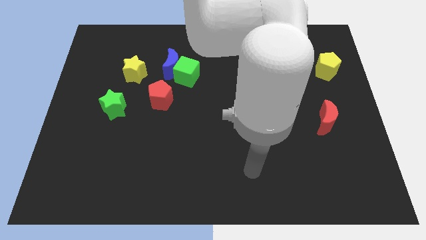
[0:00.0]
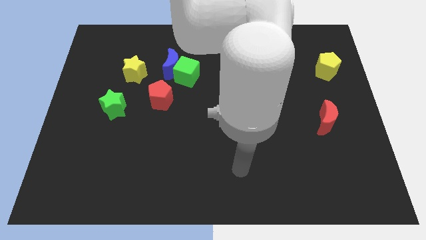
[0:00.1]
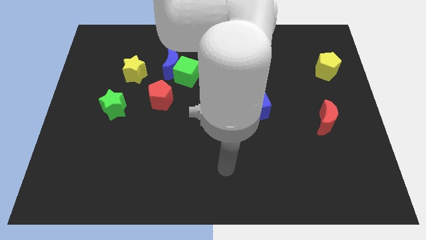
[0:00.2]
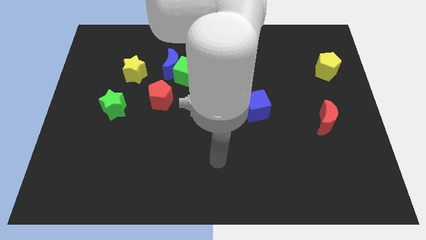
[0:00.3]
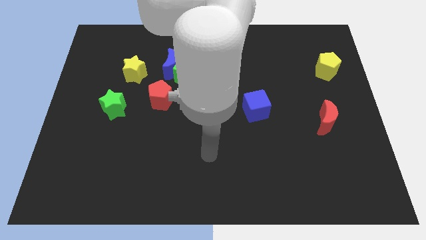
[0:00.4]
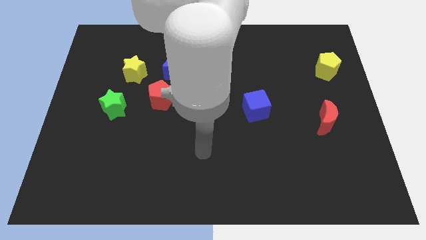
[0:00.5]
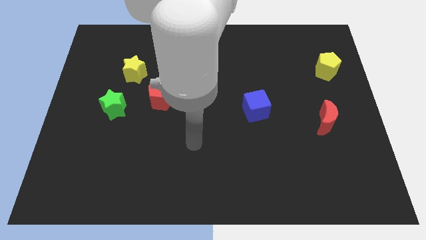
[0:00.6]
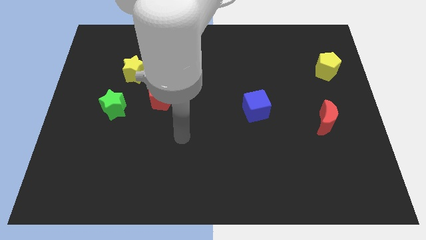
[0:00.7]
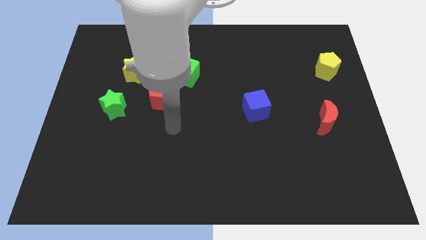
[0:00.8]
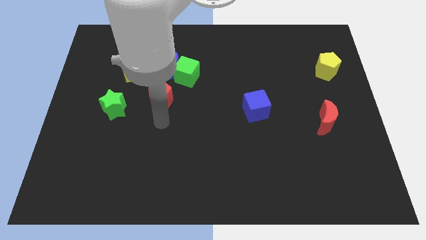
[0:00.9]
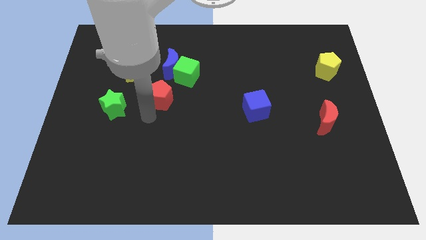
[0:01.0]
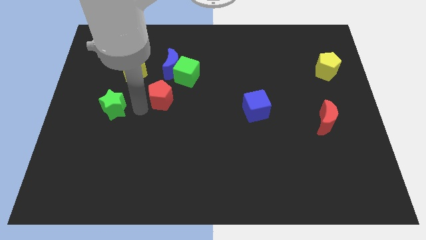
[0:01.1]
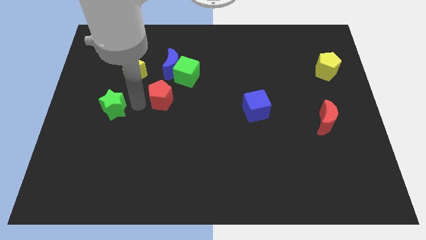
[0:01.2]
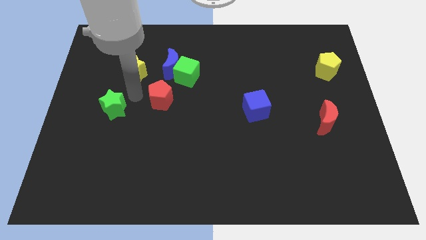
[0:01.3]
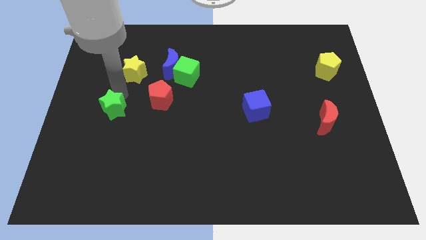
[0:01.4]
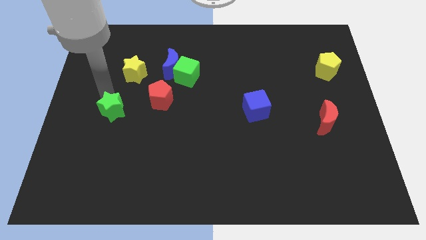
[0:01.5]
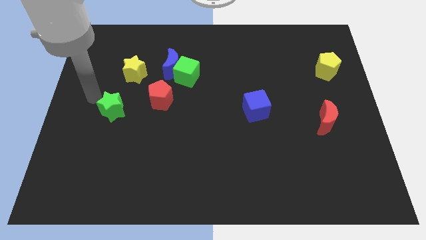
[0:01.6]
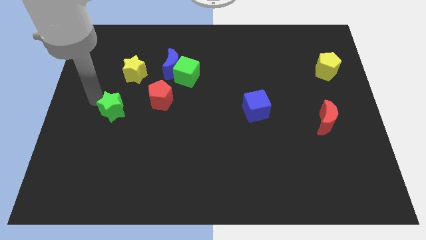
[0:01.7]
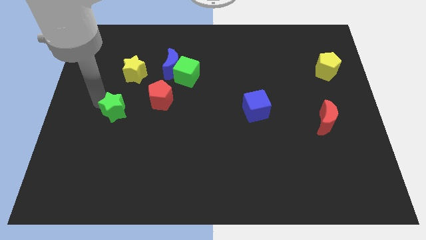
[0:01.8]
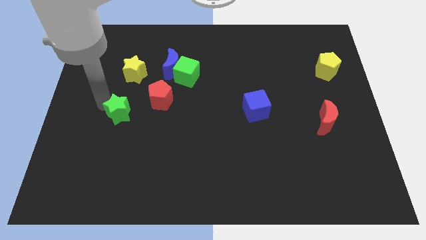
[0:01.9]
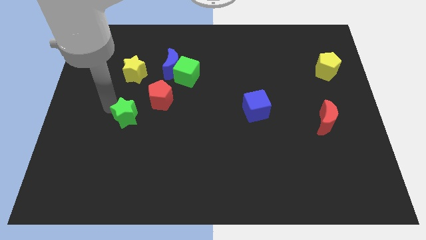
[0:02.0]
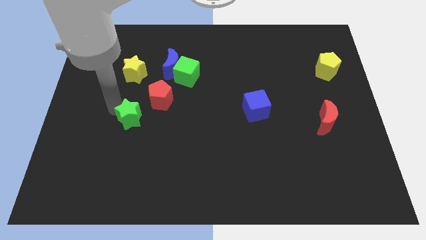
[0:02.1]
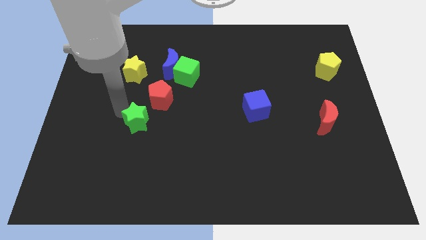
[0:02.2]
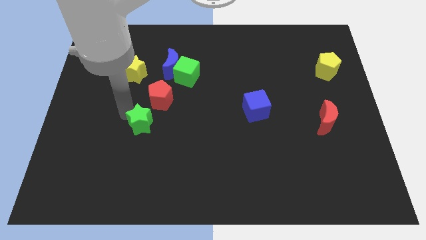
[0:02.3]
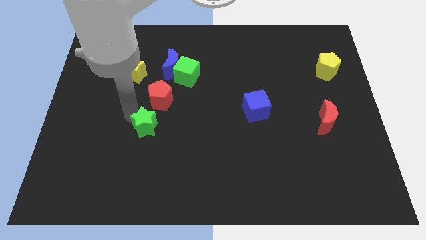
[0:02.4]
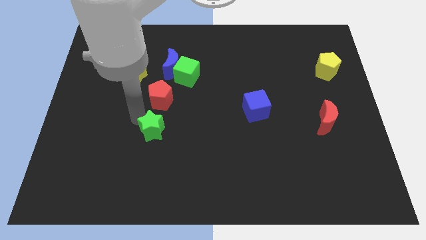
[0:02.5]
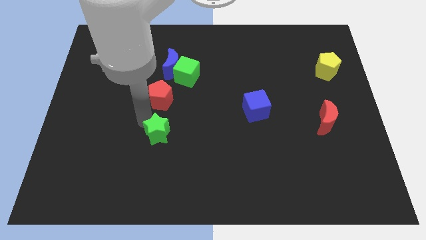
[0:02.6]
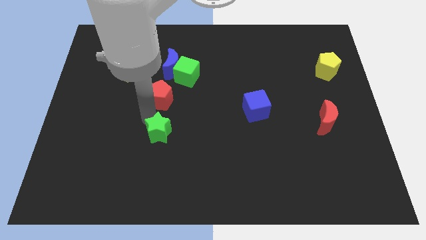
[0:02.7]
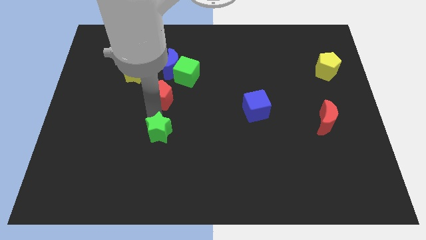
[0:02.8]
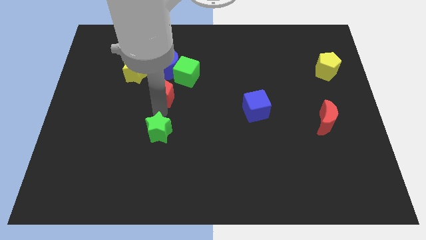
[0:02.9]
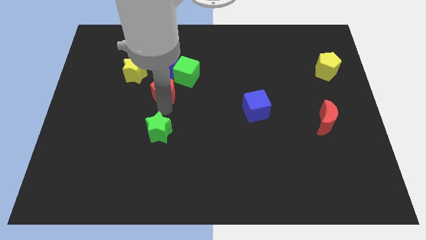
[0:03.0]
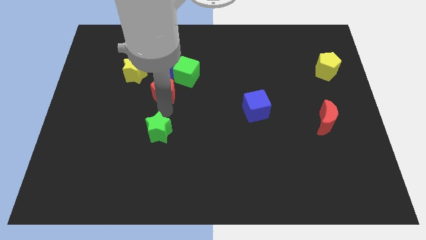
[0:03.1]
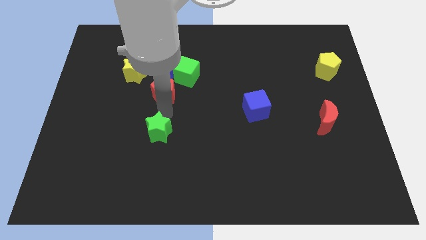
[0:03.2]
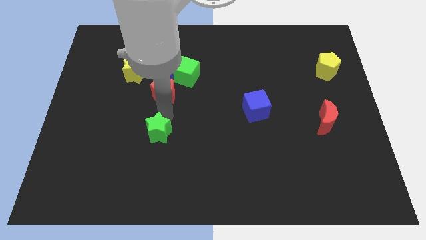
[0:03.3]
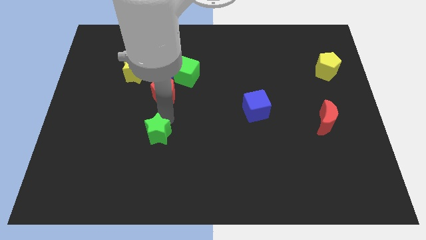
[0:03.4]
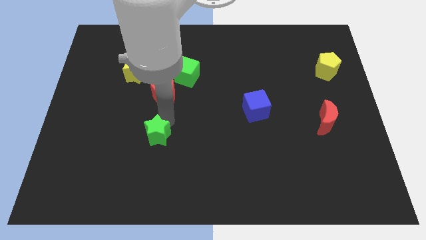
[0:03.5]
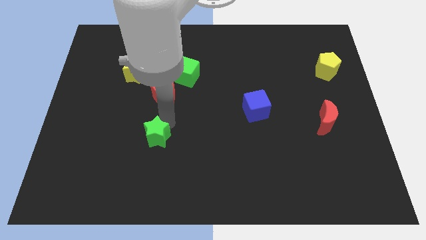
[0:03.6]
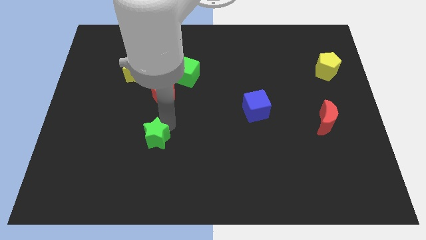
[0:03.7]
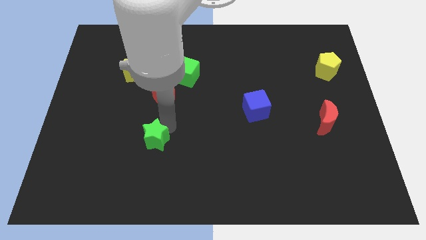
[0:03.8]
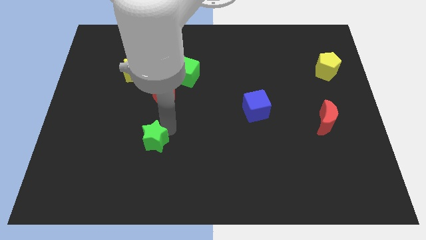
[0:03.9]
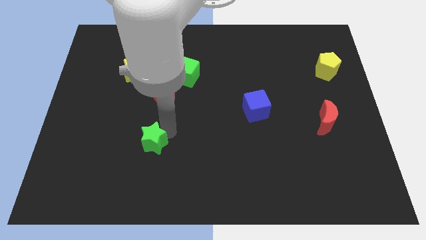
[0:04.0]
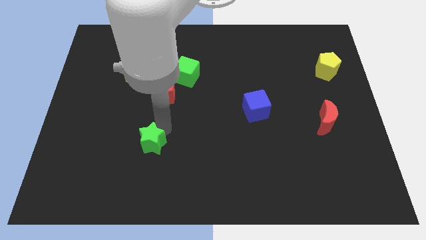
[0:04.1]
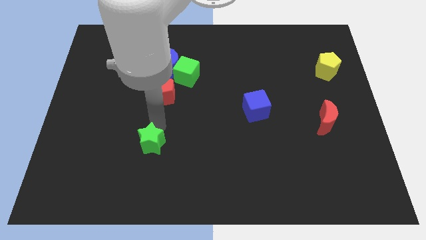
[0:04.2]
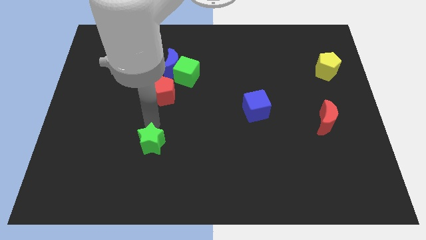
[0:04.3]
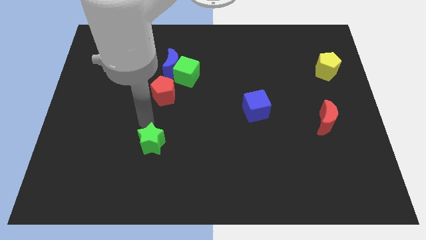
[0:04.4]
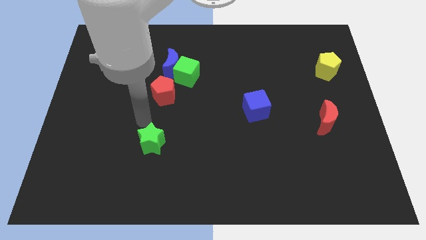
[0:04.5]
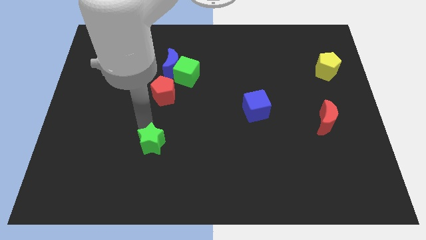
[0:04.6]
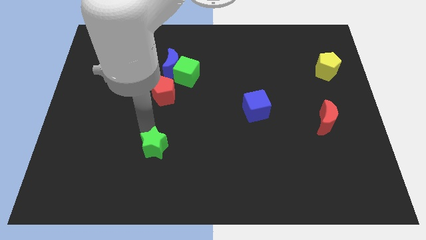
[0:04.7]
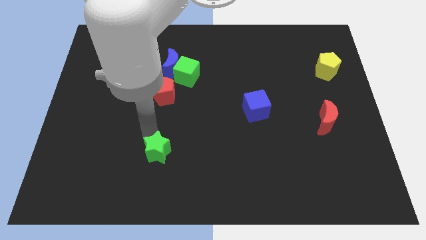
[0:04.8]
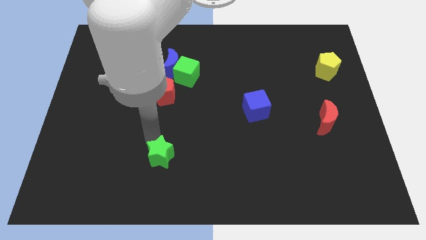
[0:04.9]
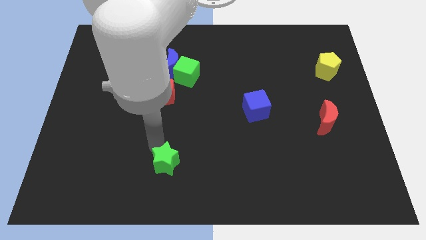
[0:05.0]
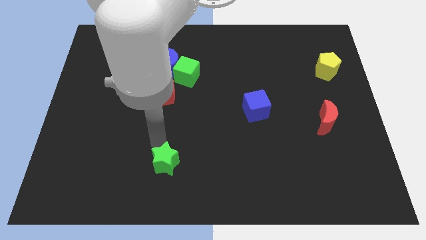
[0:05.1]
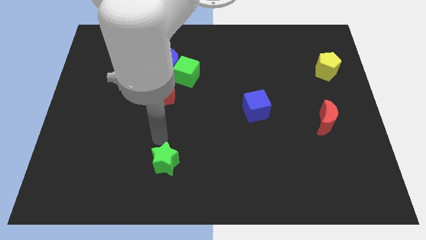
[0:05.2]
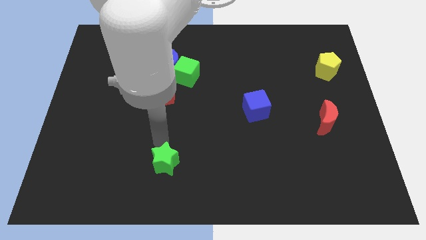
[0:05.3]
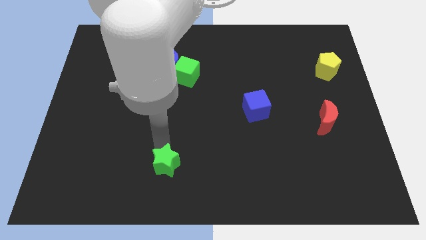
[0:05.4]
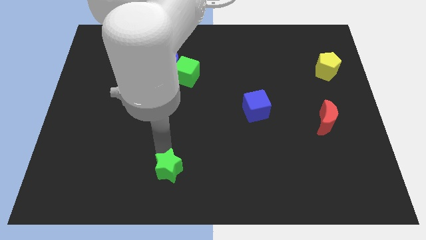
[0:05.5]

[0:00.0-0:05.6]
slide the green star to the bottom side

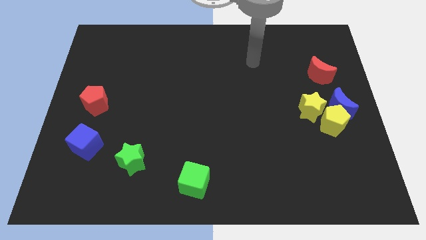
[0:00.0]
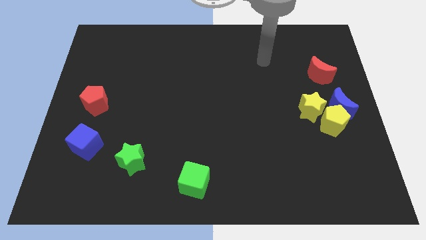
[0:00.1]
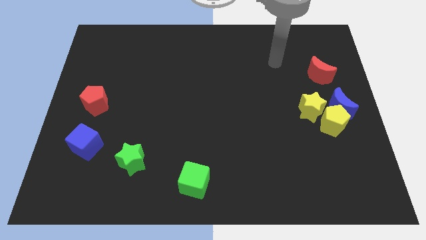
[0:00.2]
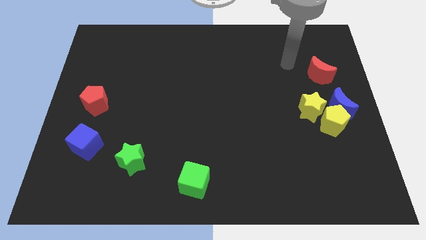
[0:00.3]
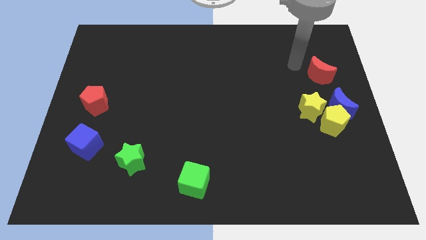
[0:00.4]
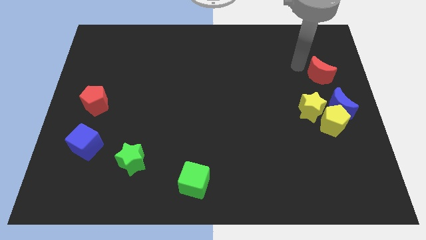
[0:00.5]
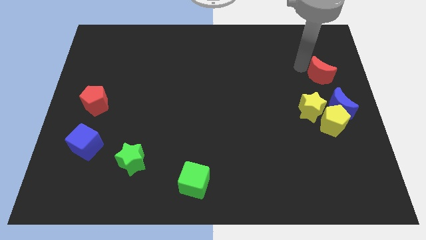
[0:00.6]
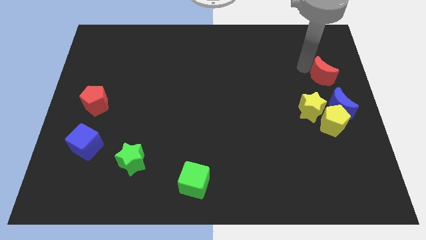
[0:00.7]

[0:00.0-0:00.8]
push the red moon to the right side of the board
